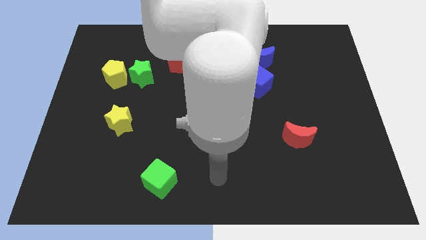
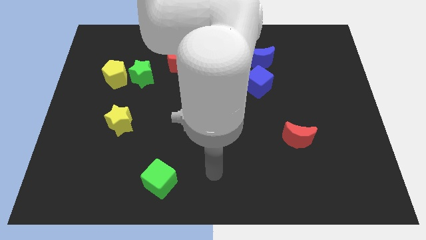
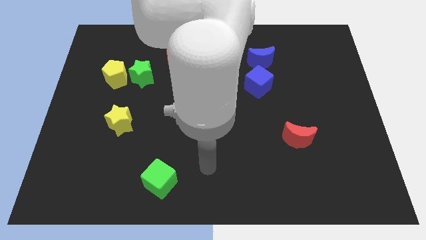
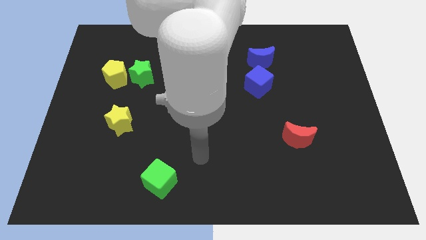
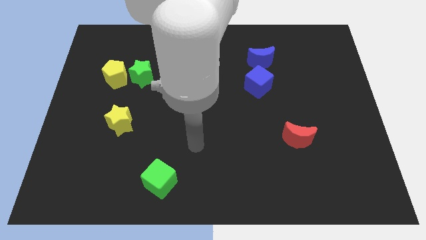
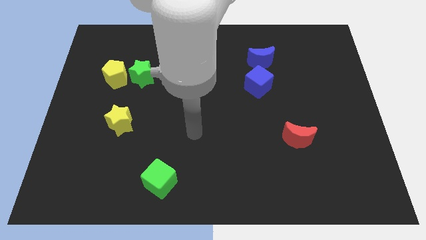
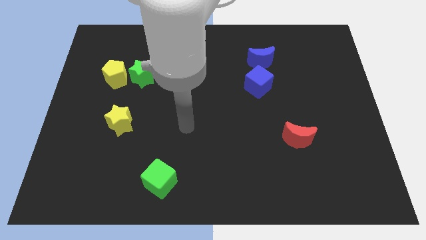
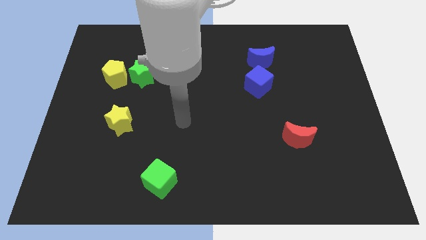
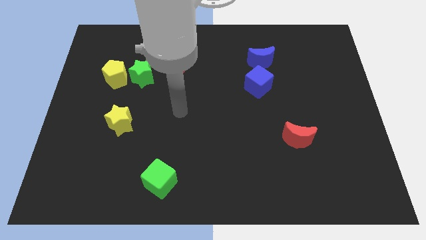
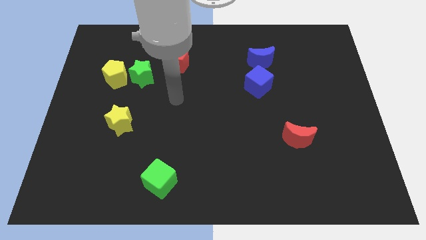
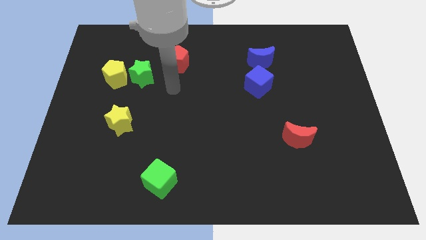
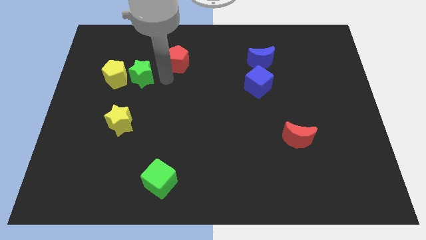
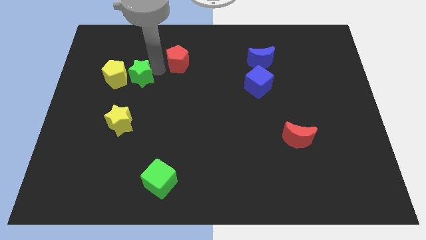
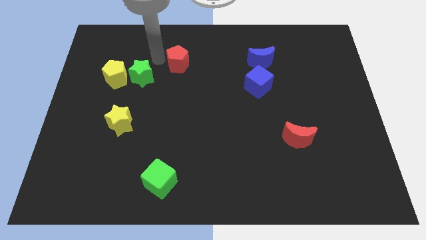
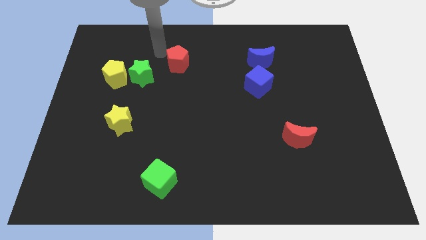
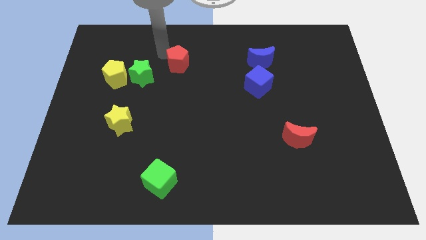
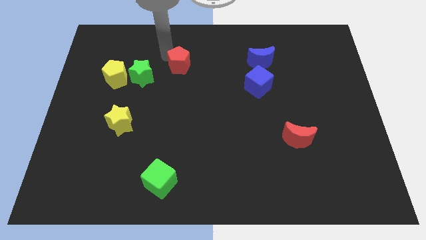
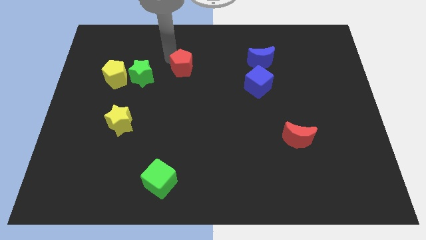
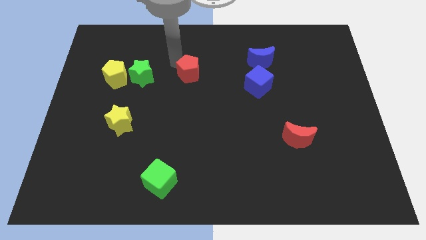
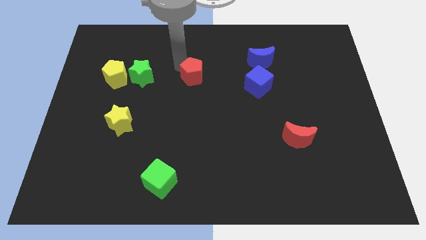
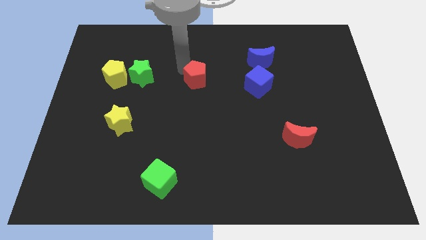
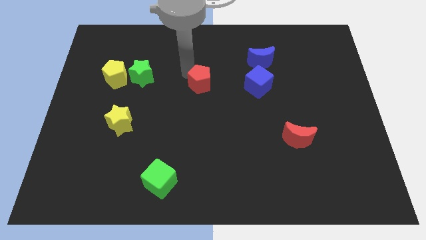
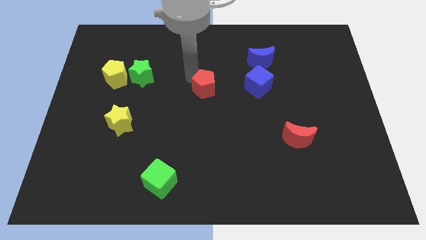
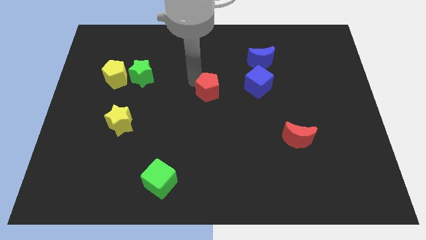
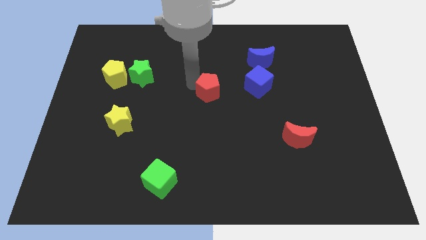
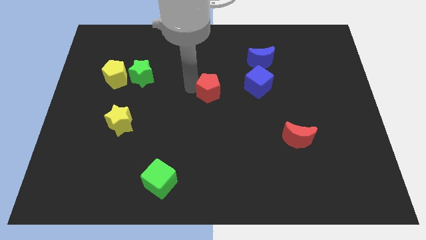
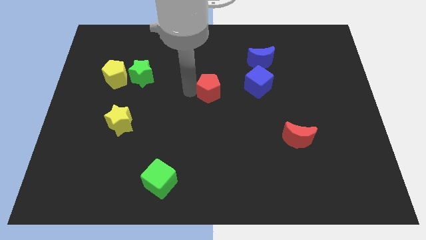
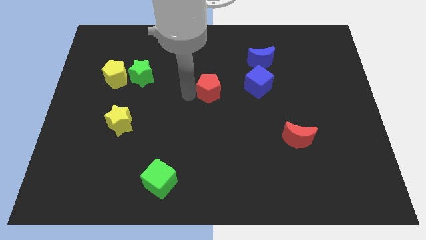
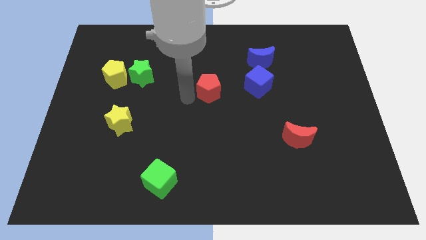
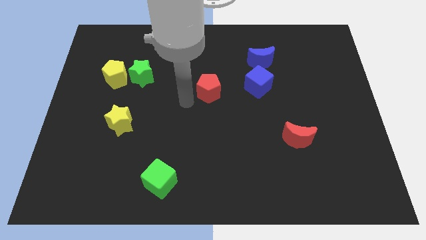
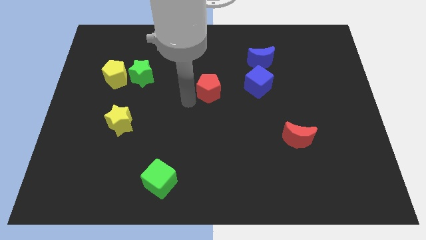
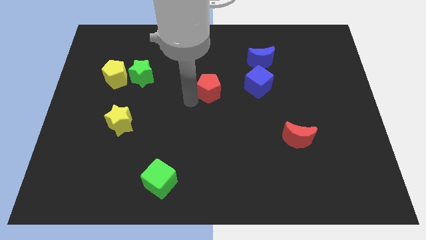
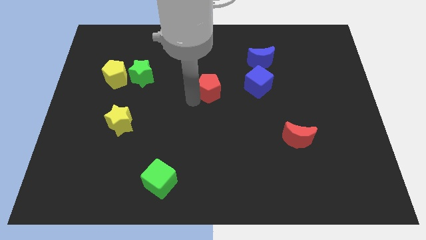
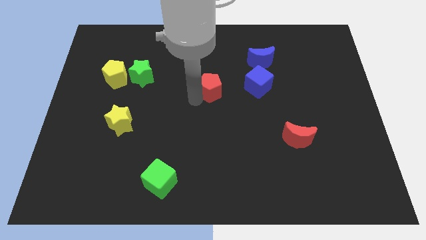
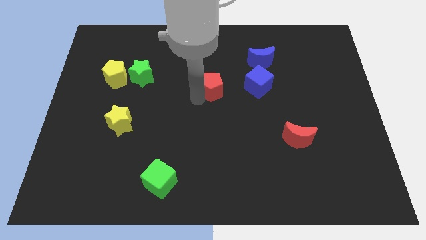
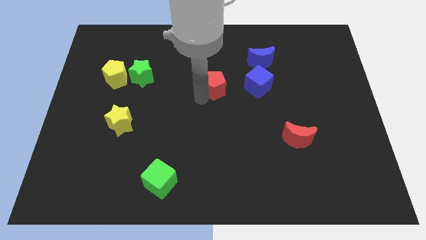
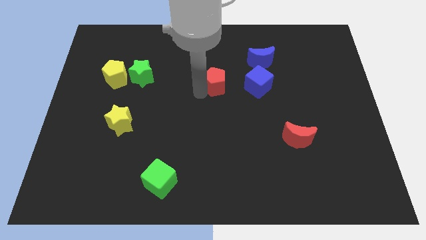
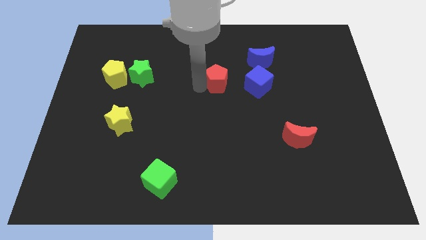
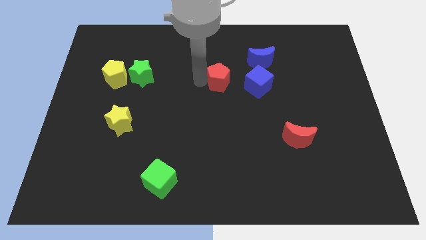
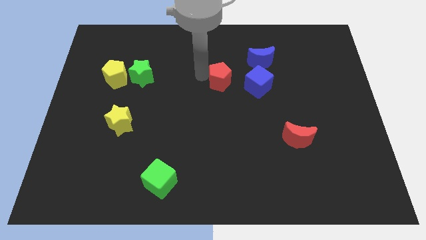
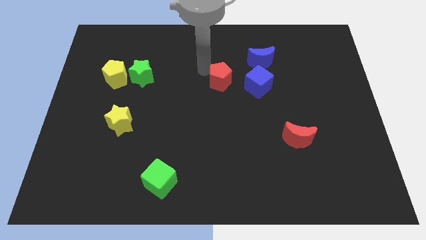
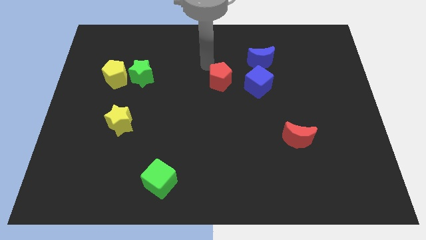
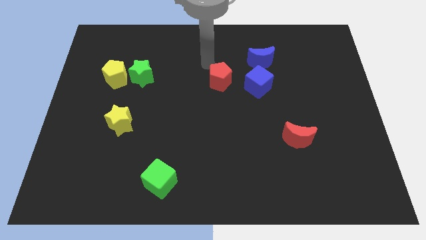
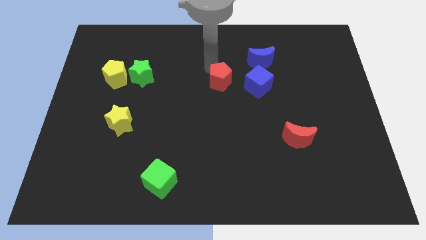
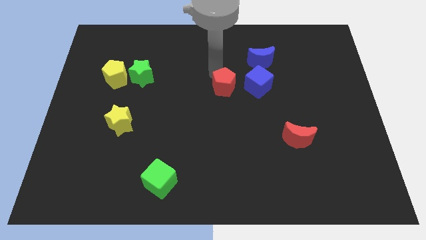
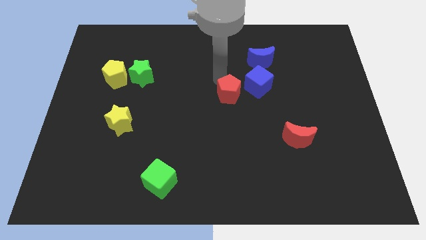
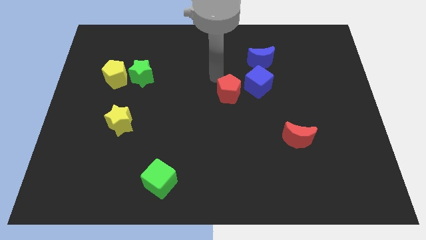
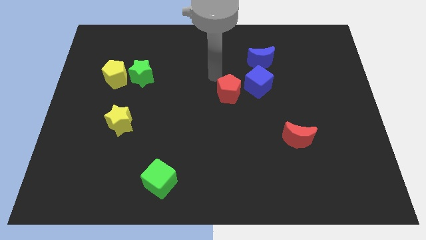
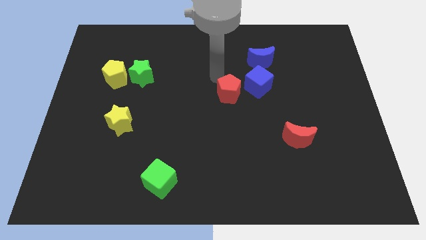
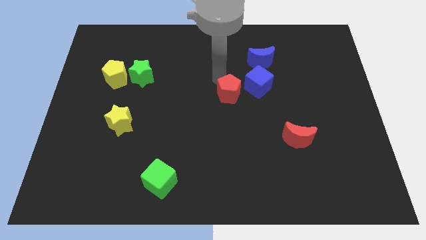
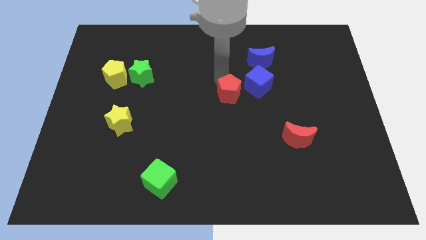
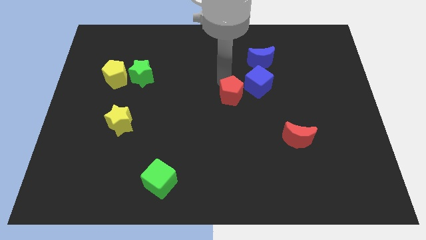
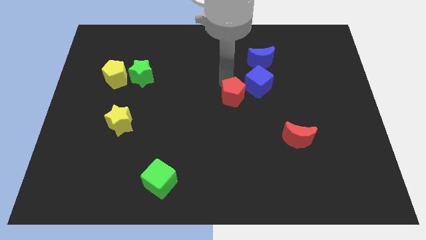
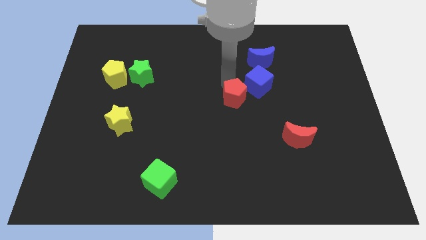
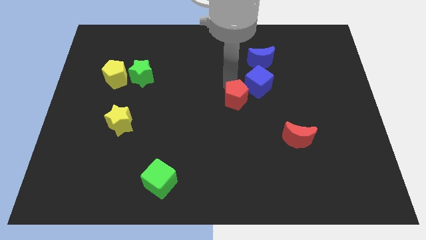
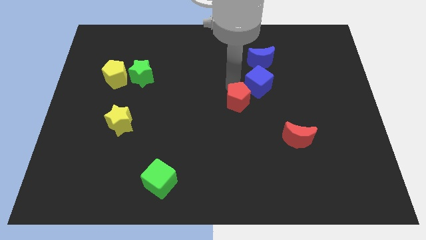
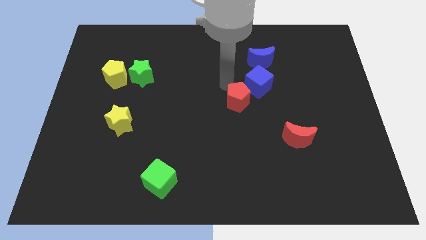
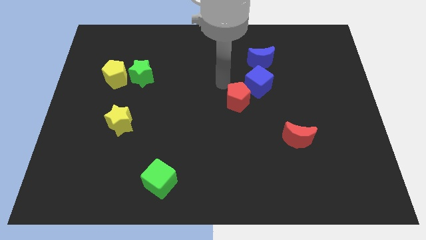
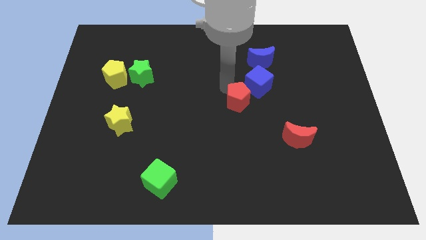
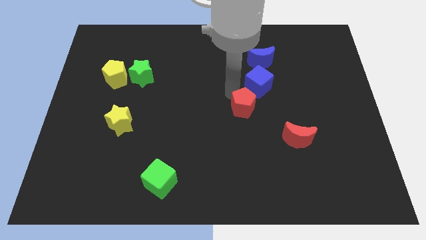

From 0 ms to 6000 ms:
slide the red pentagon down and to the right diagonally

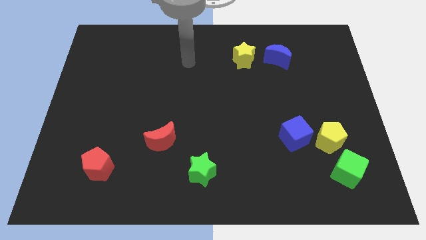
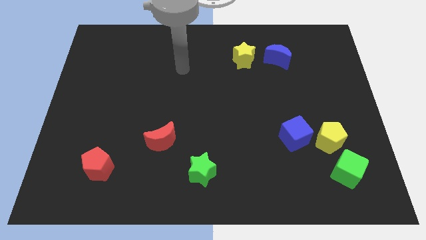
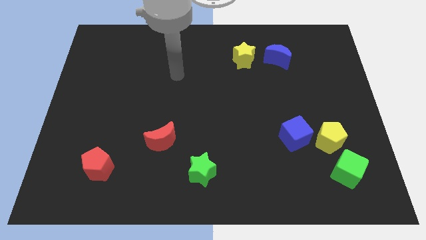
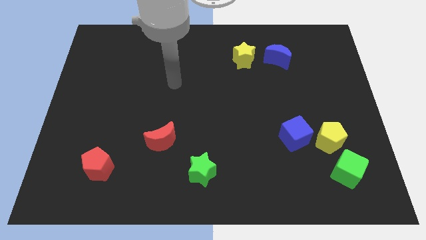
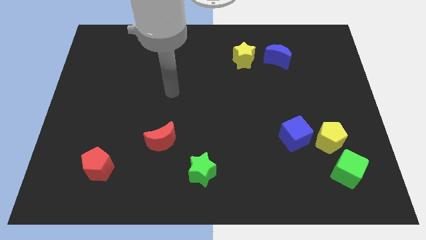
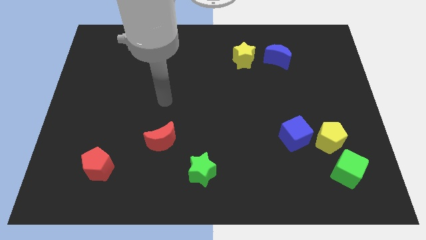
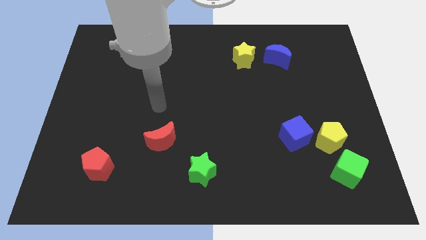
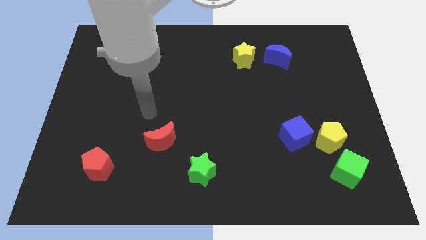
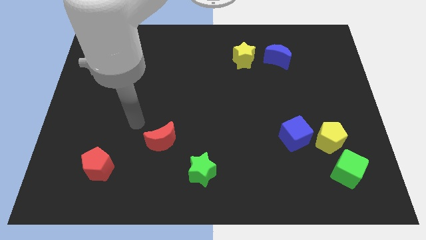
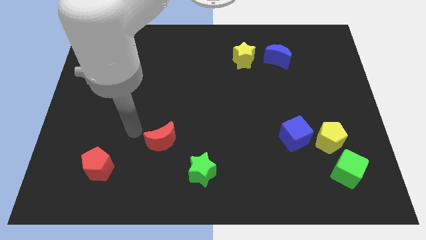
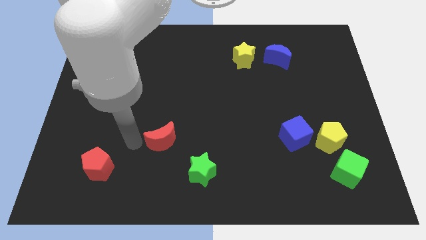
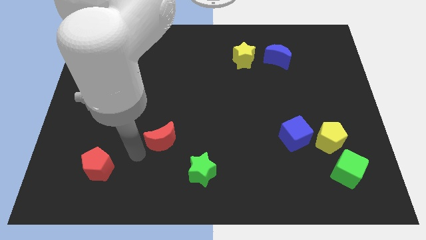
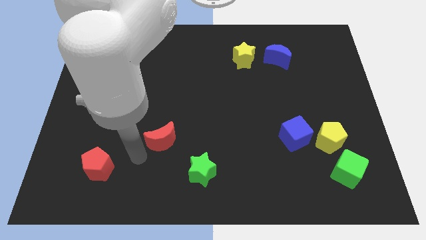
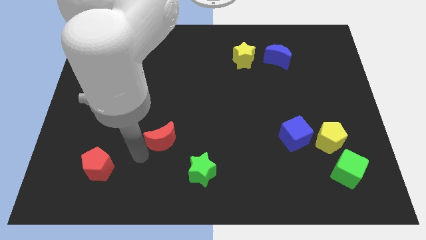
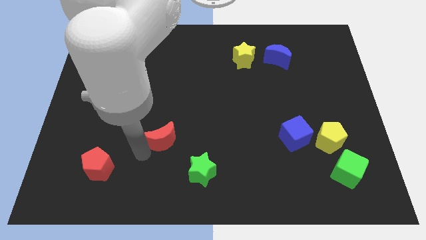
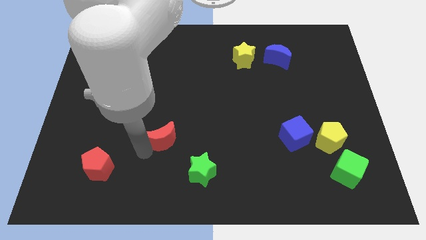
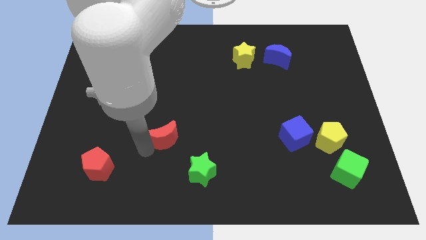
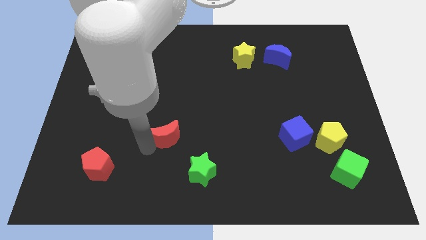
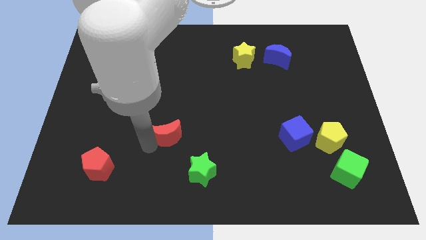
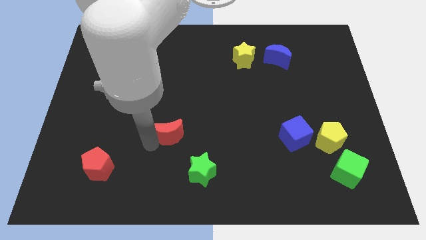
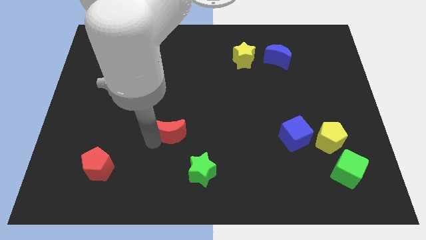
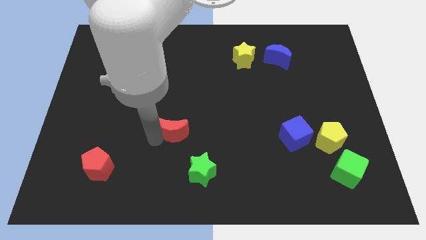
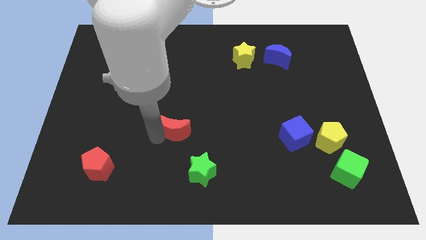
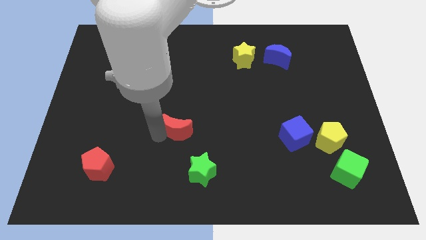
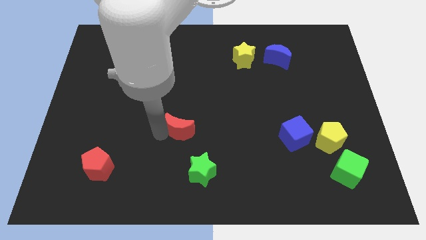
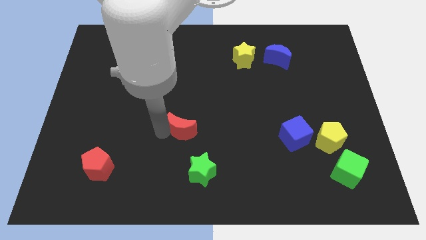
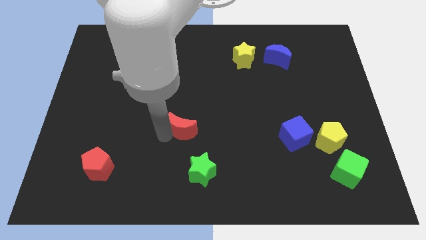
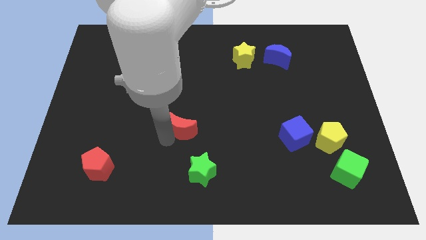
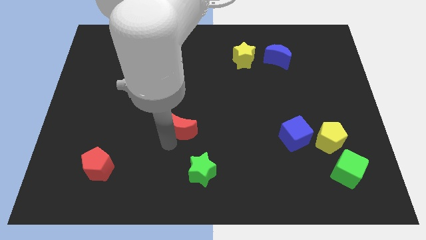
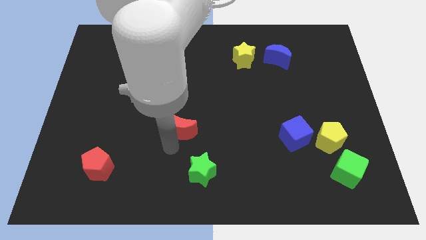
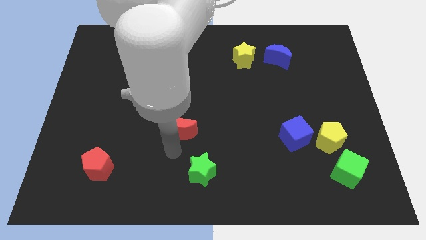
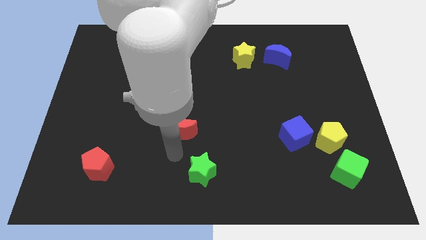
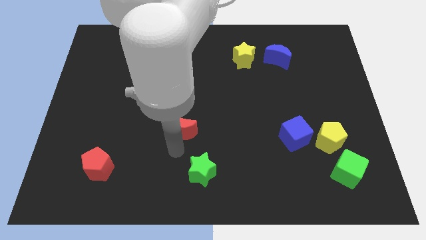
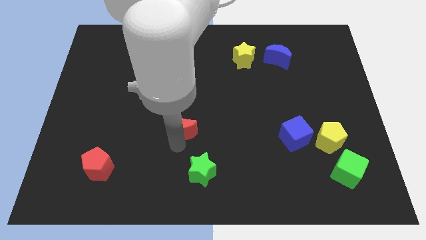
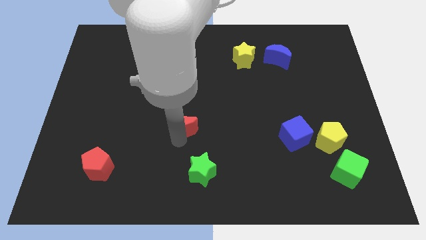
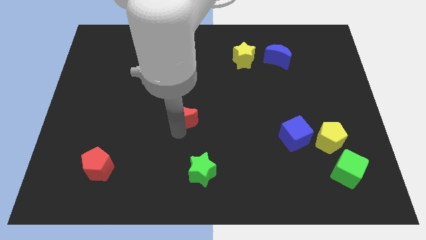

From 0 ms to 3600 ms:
slightly push the red moon up and then to the right
